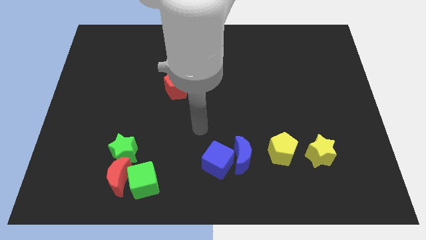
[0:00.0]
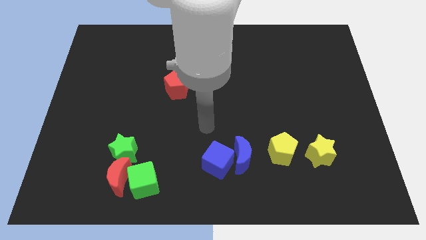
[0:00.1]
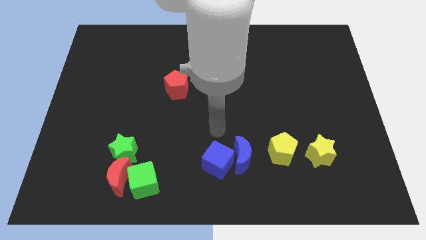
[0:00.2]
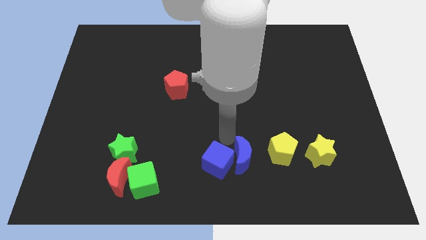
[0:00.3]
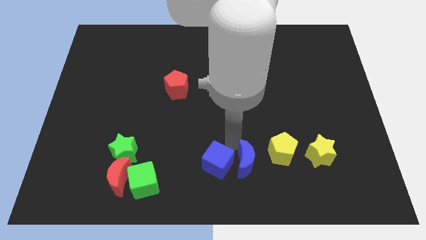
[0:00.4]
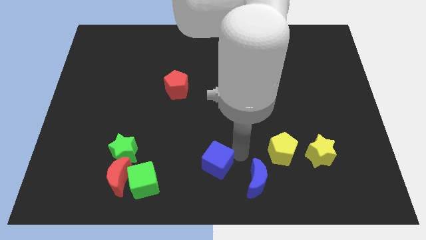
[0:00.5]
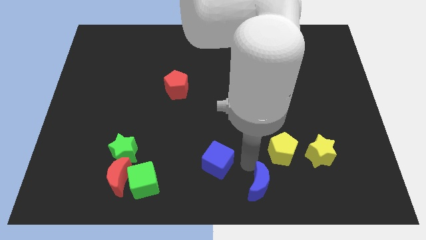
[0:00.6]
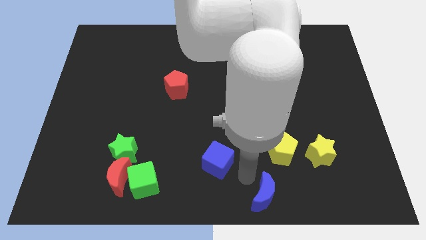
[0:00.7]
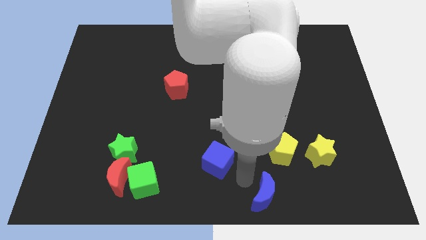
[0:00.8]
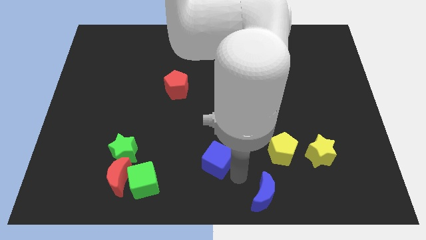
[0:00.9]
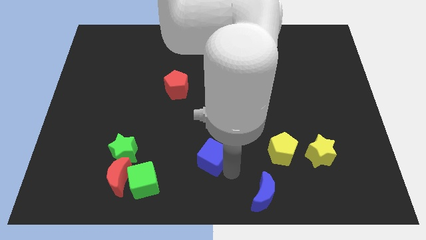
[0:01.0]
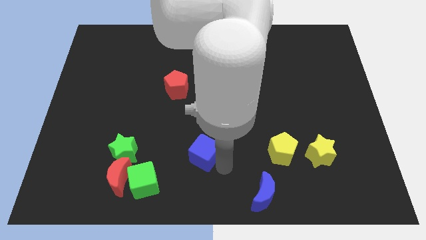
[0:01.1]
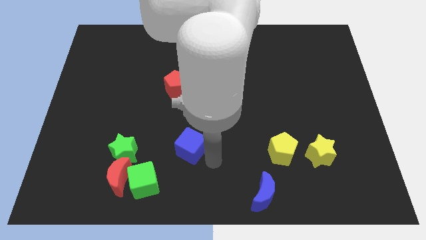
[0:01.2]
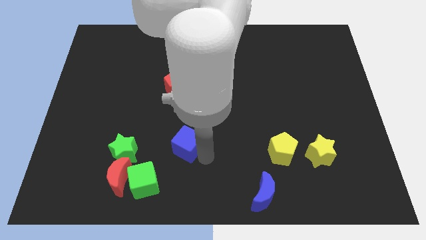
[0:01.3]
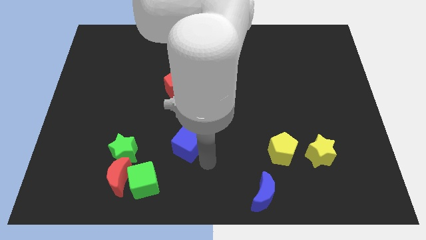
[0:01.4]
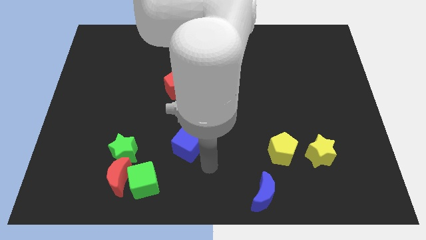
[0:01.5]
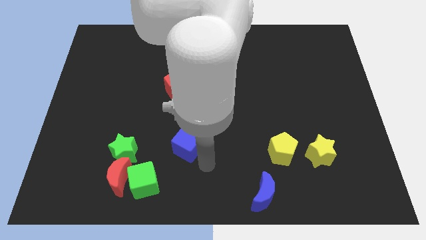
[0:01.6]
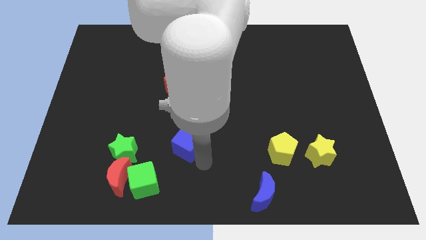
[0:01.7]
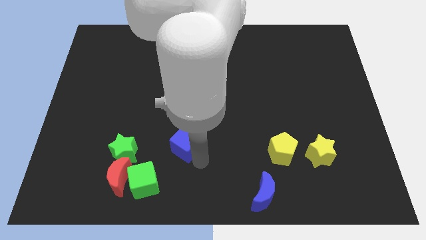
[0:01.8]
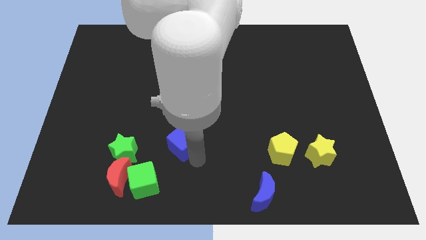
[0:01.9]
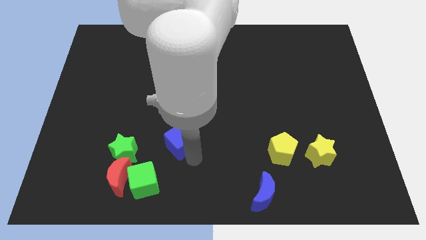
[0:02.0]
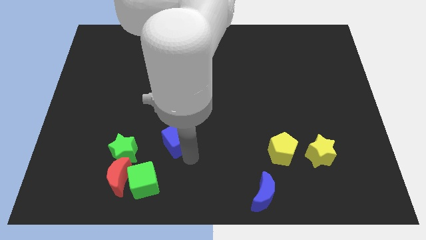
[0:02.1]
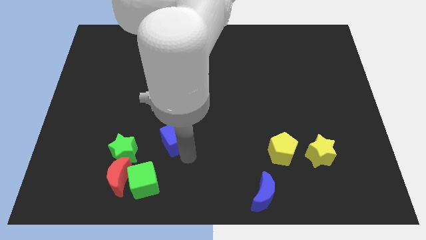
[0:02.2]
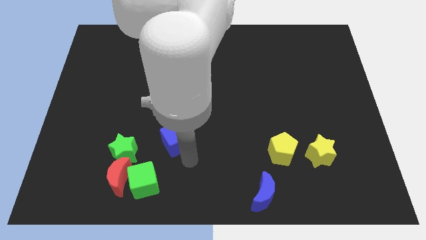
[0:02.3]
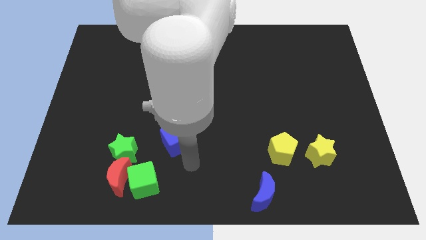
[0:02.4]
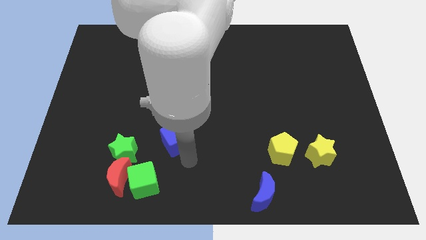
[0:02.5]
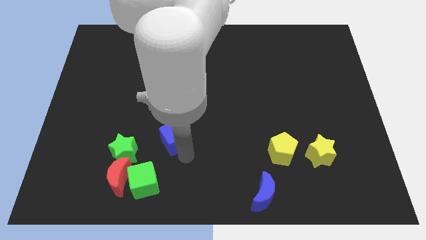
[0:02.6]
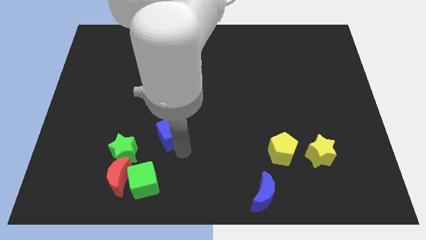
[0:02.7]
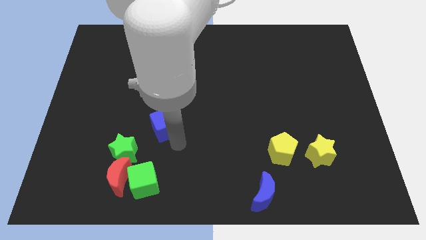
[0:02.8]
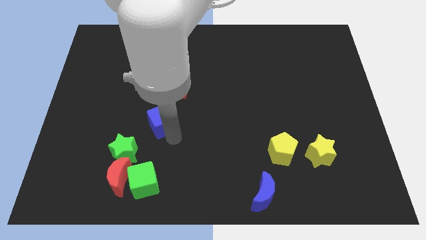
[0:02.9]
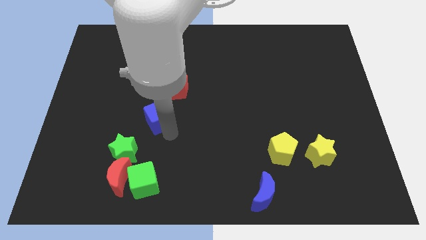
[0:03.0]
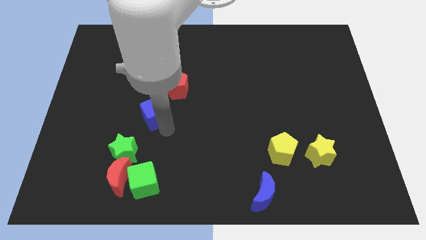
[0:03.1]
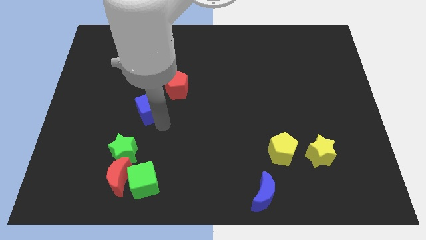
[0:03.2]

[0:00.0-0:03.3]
push the blue cube diagonally upwards and left

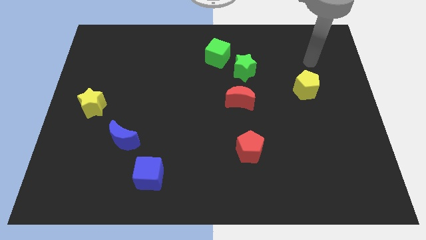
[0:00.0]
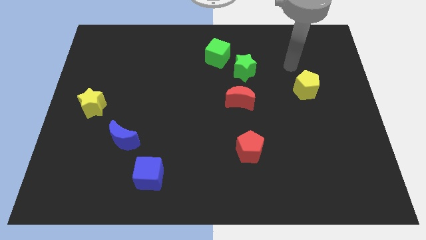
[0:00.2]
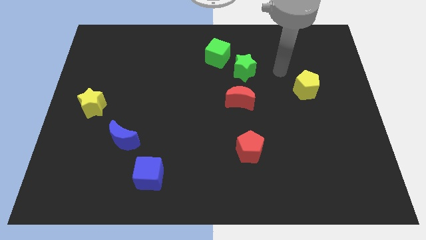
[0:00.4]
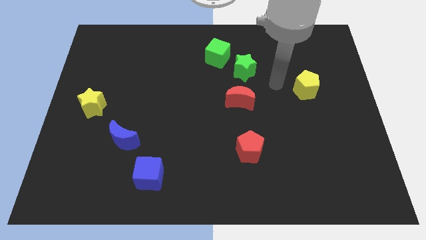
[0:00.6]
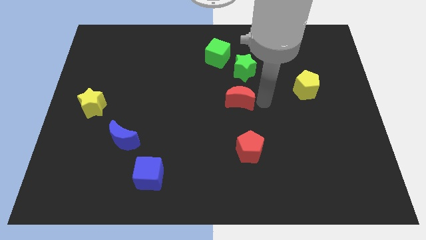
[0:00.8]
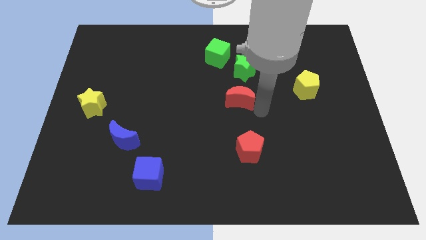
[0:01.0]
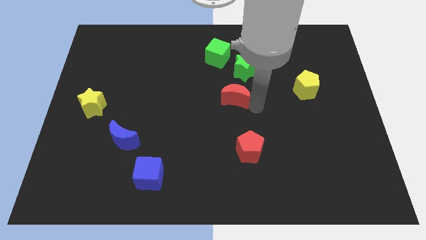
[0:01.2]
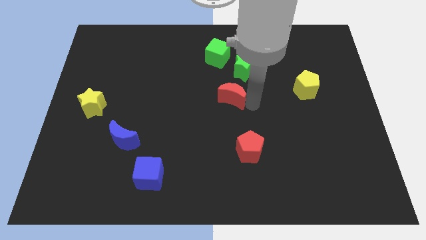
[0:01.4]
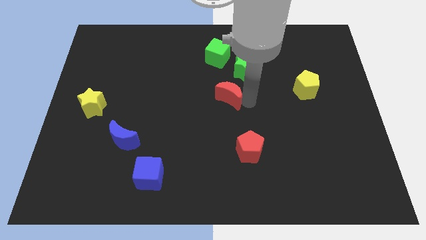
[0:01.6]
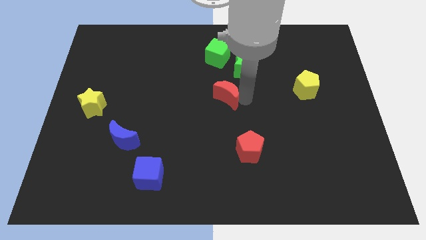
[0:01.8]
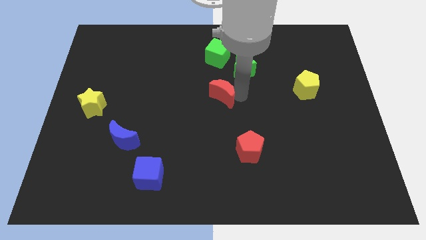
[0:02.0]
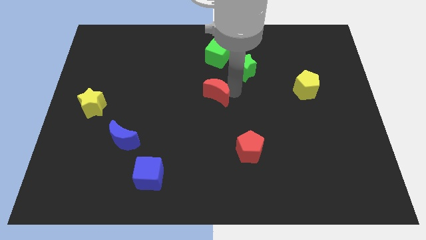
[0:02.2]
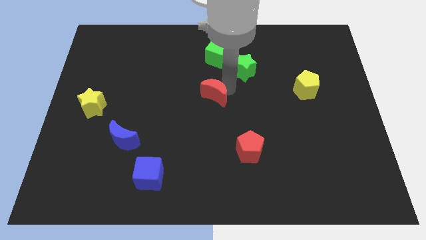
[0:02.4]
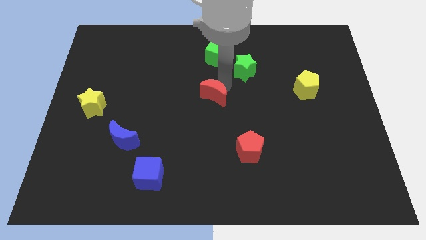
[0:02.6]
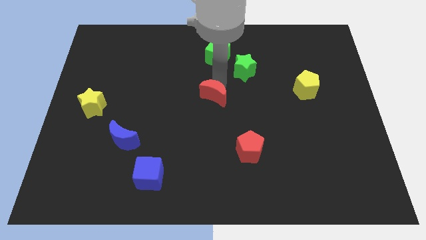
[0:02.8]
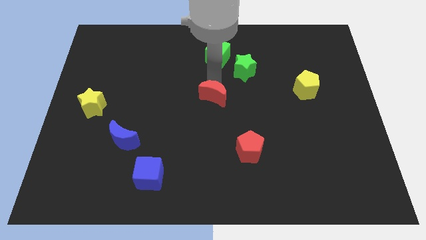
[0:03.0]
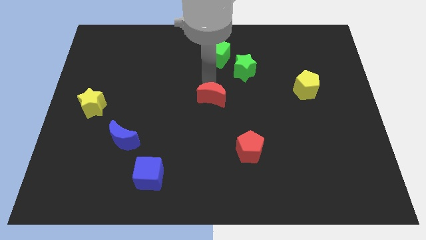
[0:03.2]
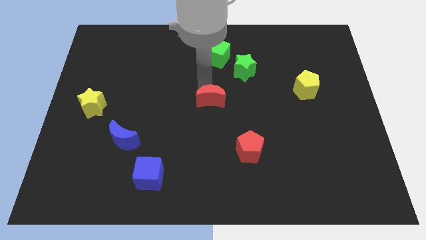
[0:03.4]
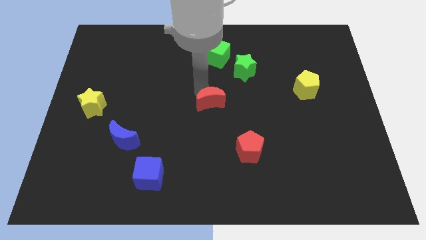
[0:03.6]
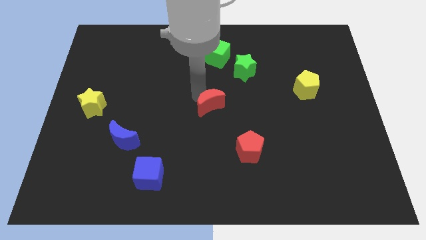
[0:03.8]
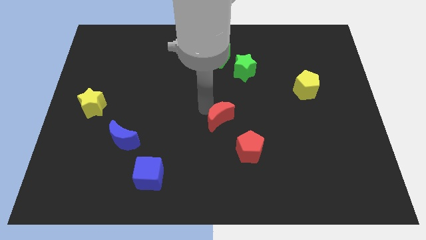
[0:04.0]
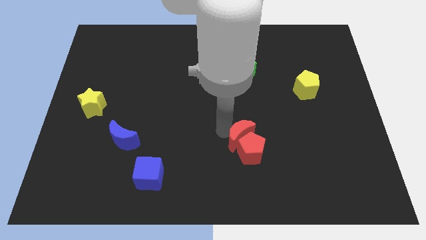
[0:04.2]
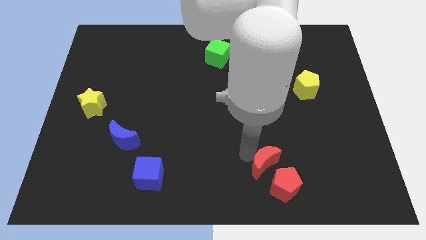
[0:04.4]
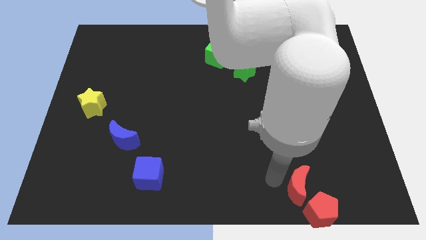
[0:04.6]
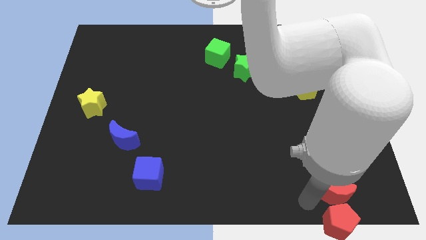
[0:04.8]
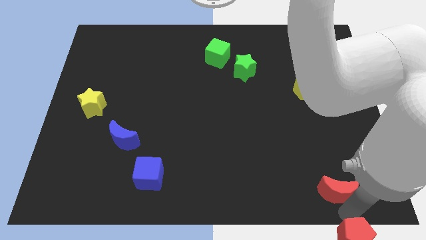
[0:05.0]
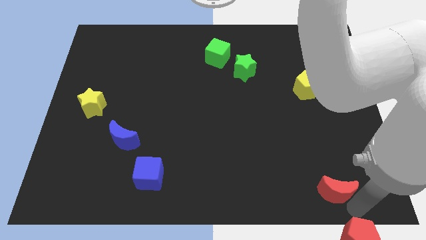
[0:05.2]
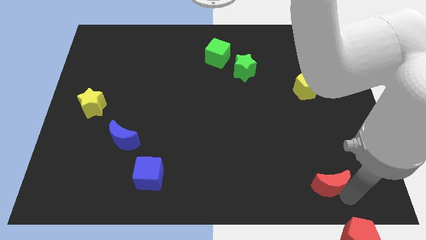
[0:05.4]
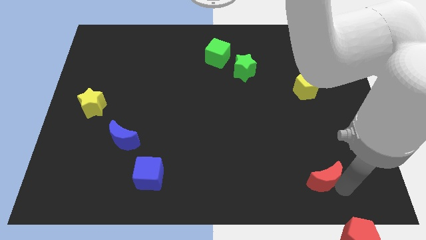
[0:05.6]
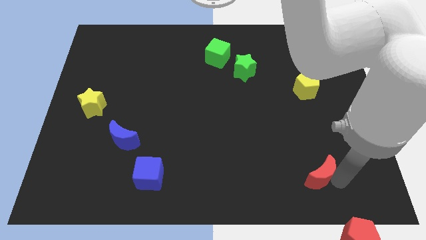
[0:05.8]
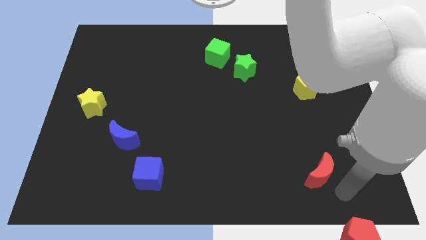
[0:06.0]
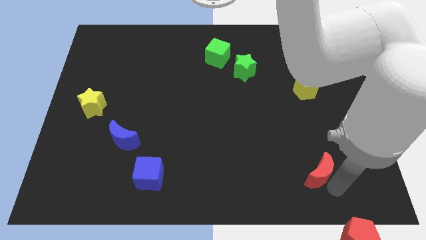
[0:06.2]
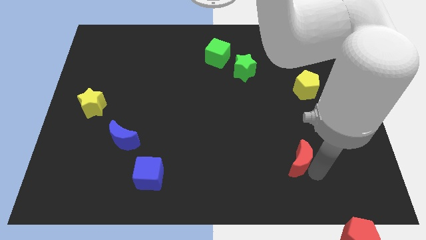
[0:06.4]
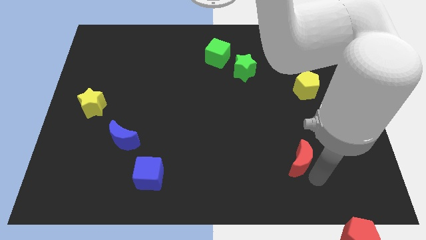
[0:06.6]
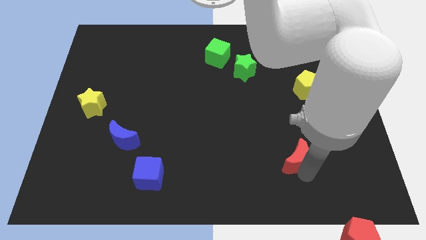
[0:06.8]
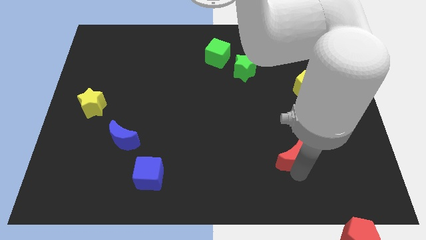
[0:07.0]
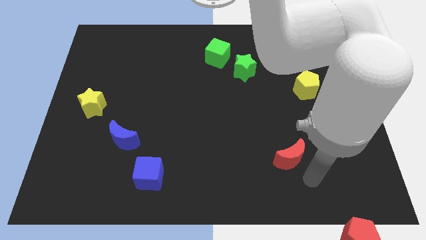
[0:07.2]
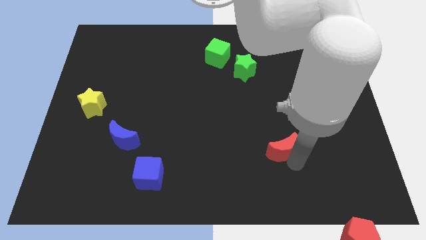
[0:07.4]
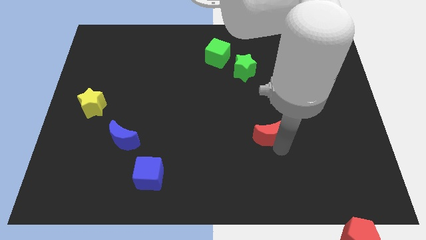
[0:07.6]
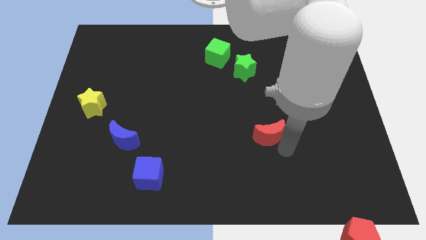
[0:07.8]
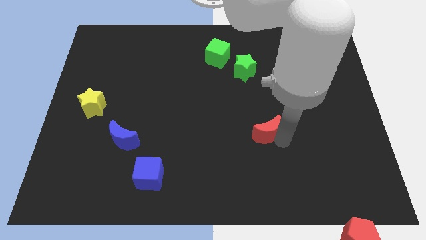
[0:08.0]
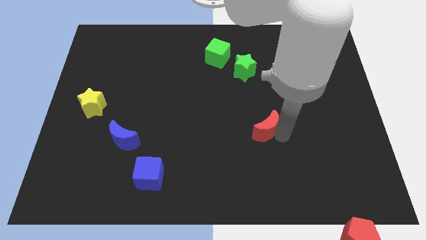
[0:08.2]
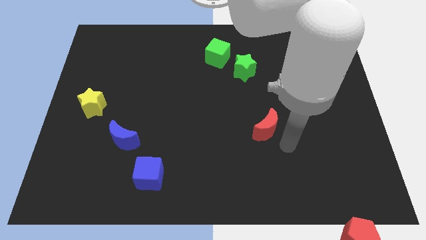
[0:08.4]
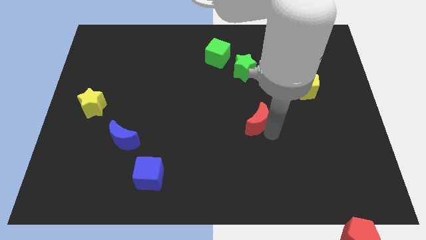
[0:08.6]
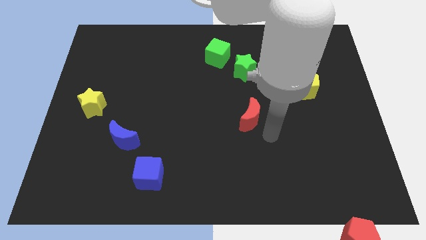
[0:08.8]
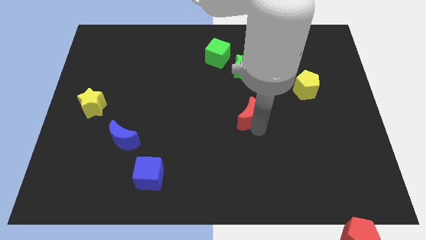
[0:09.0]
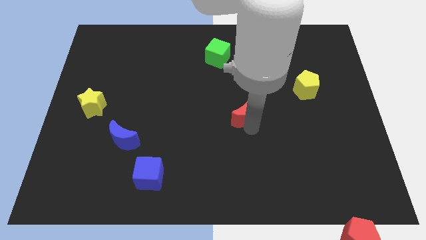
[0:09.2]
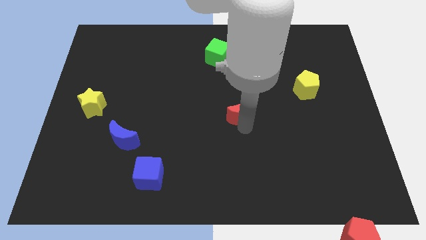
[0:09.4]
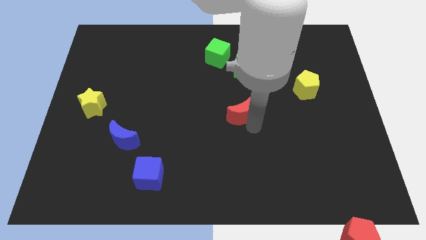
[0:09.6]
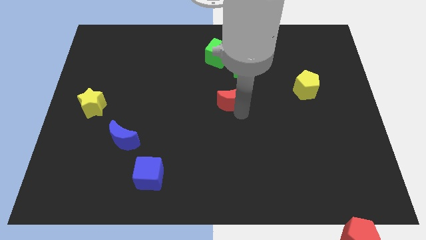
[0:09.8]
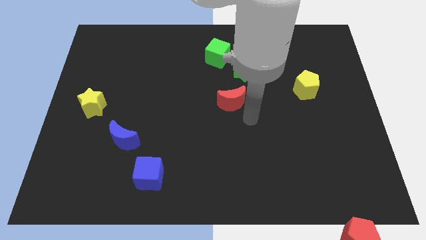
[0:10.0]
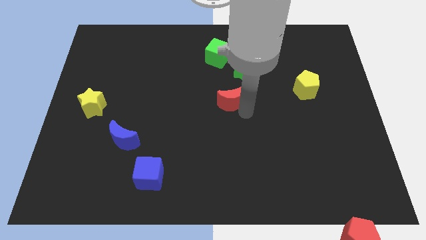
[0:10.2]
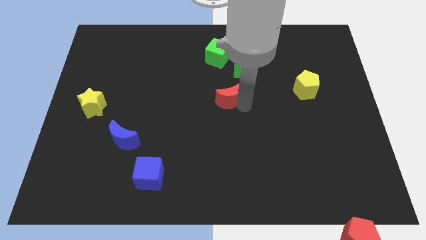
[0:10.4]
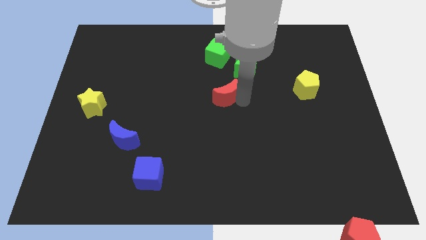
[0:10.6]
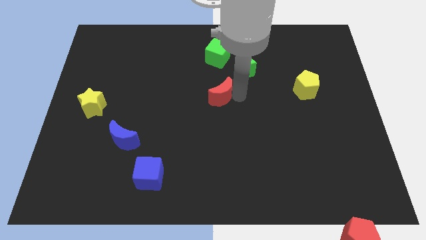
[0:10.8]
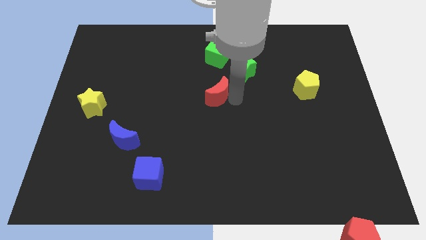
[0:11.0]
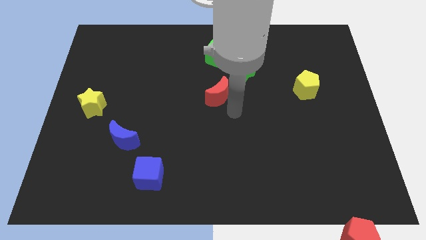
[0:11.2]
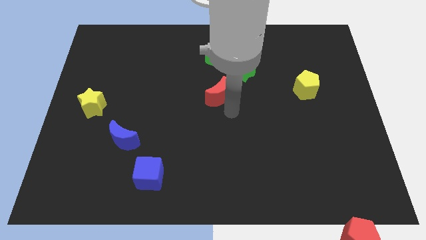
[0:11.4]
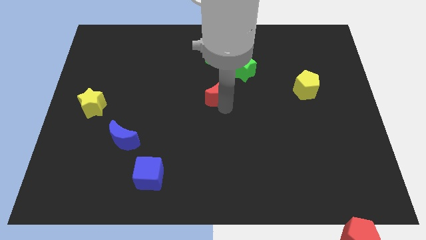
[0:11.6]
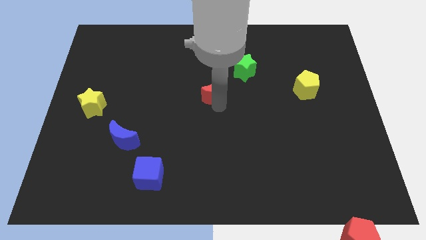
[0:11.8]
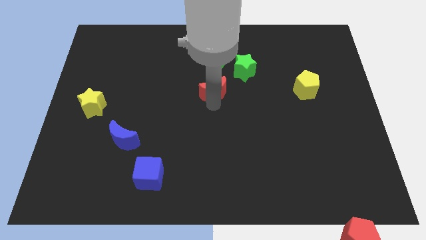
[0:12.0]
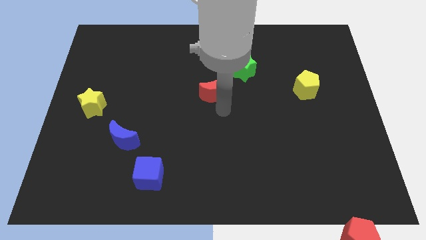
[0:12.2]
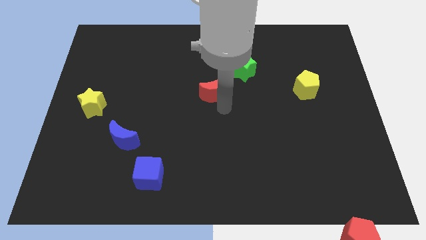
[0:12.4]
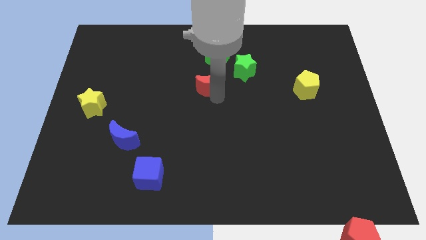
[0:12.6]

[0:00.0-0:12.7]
slightly move the red moon upwards and to the left diagonally
